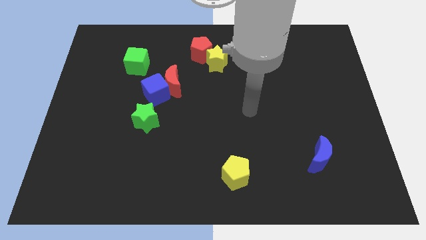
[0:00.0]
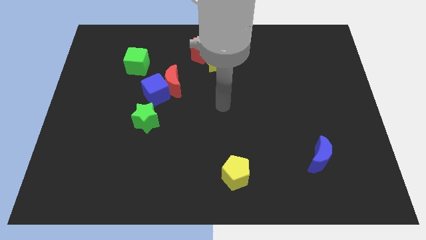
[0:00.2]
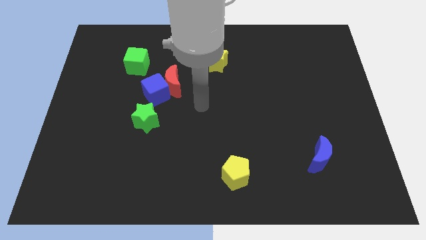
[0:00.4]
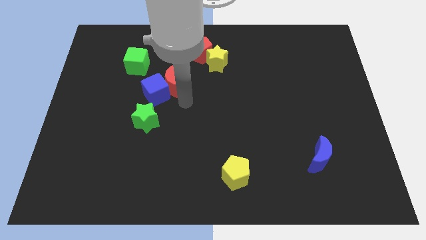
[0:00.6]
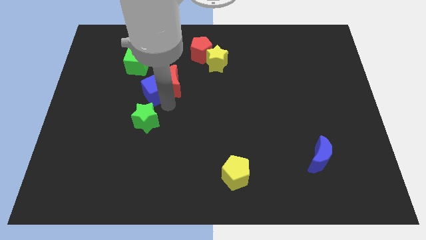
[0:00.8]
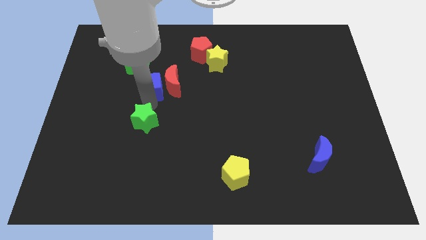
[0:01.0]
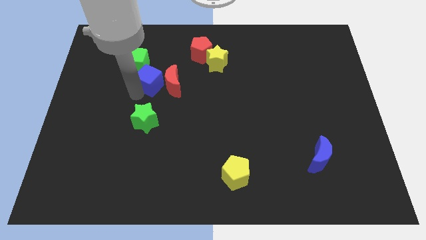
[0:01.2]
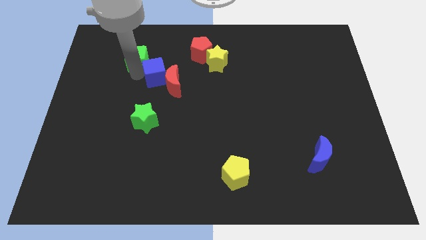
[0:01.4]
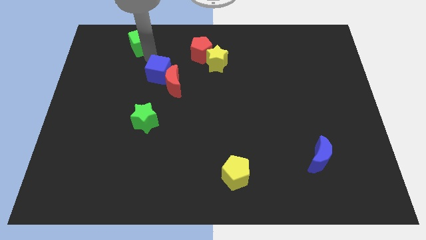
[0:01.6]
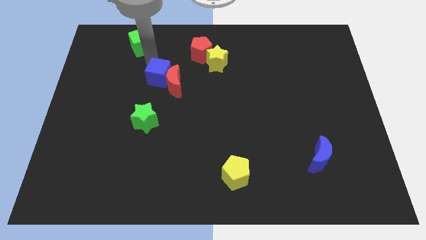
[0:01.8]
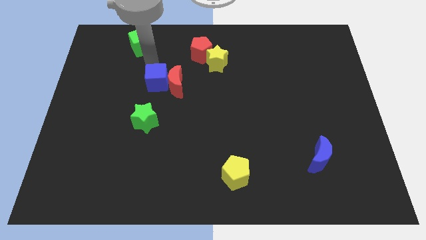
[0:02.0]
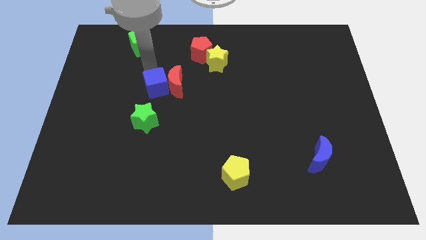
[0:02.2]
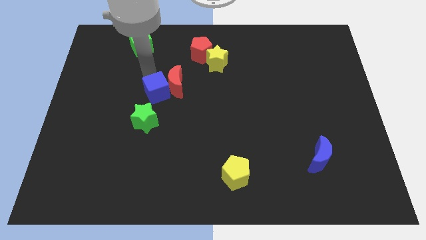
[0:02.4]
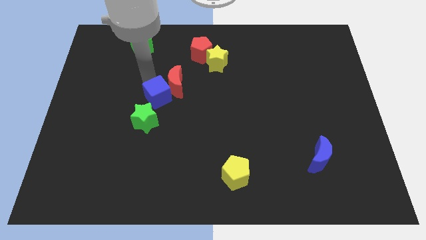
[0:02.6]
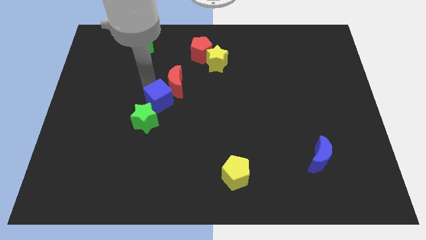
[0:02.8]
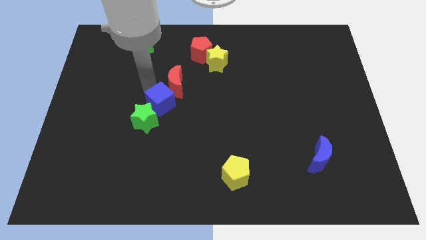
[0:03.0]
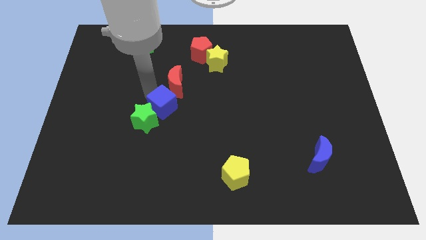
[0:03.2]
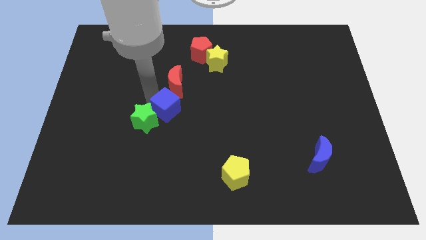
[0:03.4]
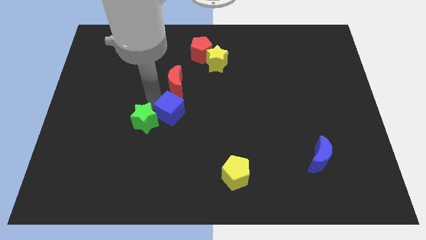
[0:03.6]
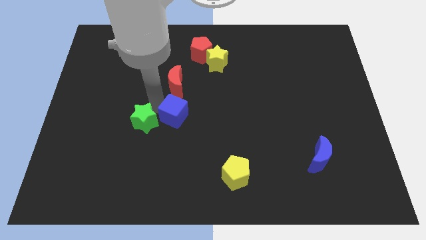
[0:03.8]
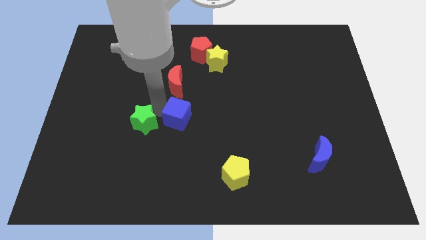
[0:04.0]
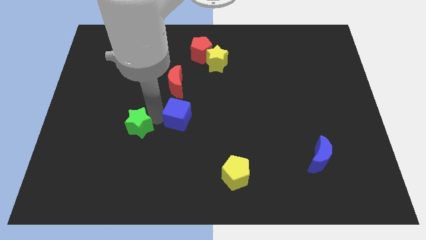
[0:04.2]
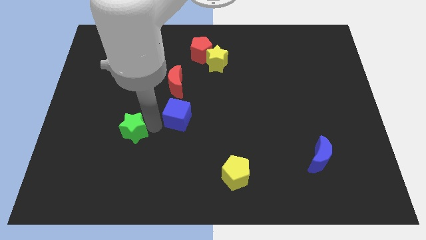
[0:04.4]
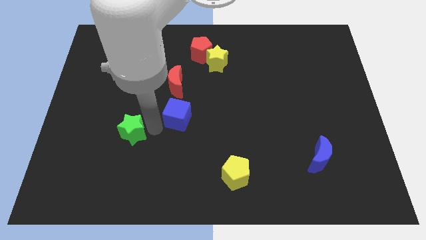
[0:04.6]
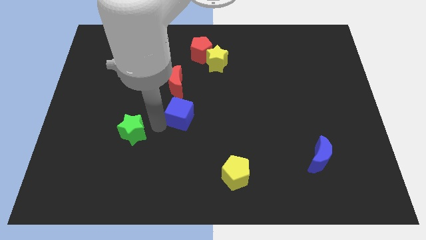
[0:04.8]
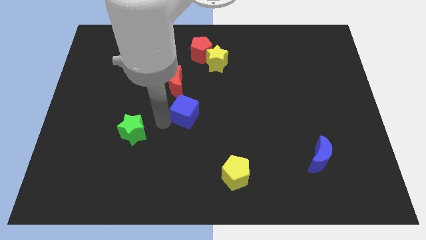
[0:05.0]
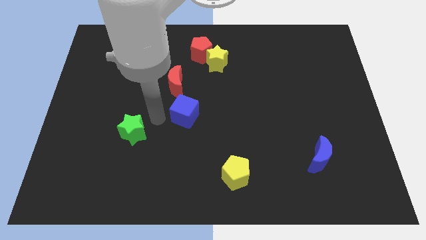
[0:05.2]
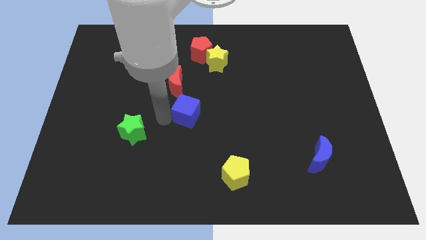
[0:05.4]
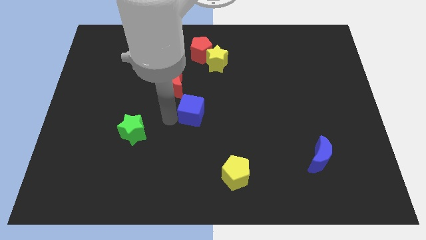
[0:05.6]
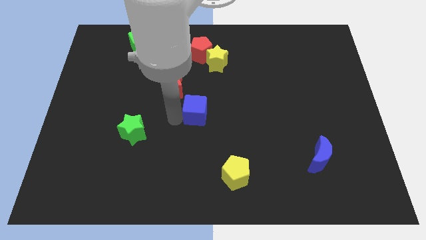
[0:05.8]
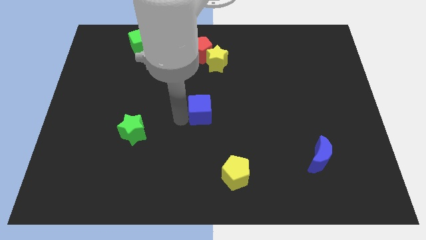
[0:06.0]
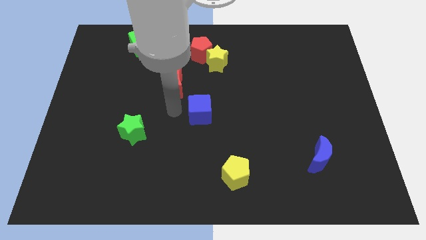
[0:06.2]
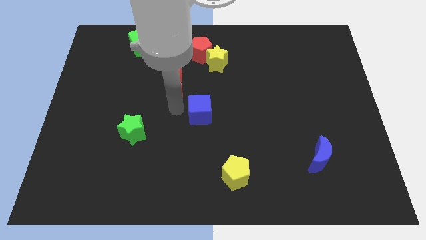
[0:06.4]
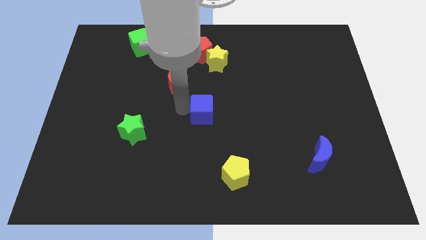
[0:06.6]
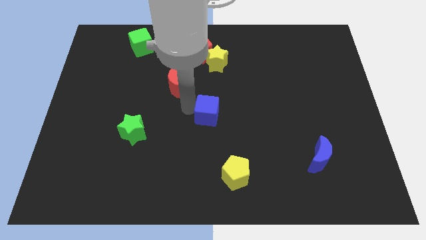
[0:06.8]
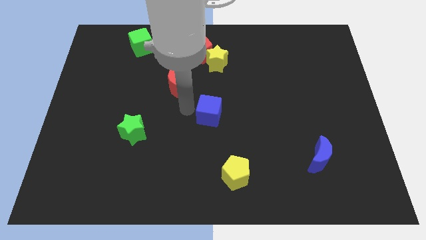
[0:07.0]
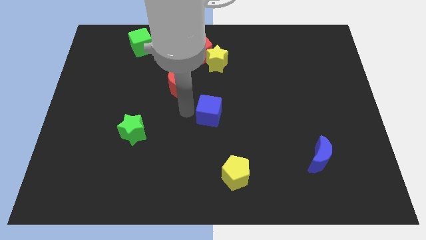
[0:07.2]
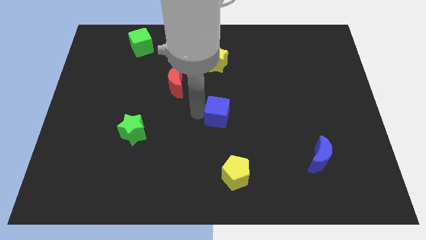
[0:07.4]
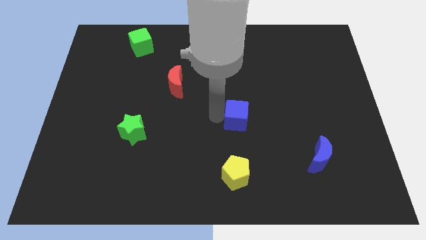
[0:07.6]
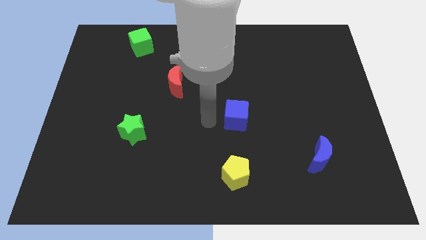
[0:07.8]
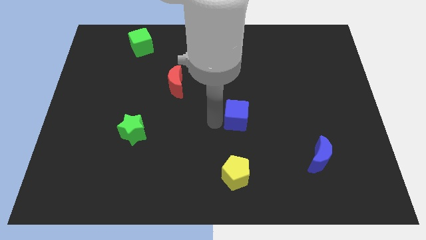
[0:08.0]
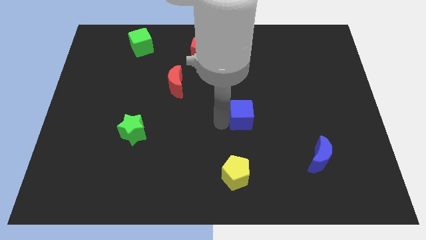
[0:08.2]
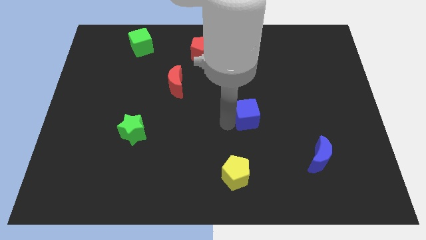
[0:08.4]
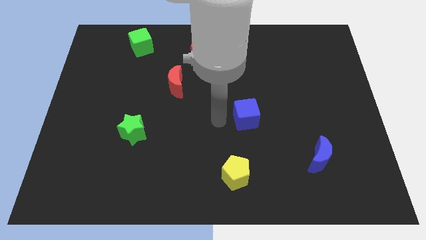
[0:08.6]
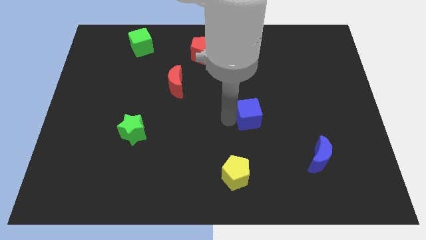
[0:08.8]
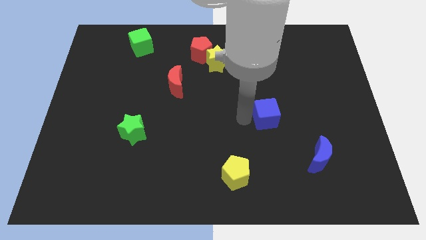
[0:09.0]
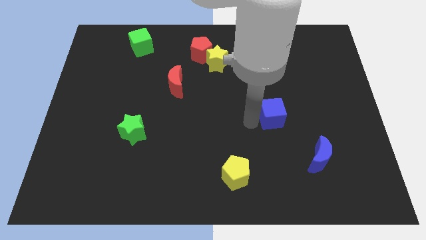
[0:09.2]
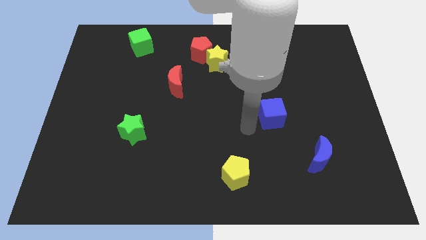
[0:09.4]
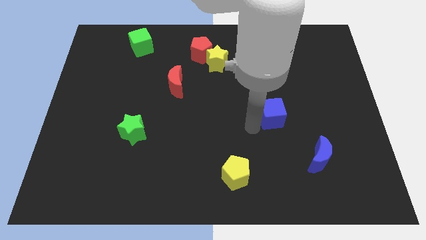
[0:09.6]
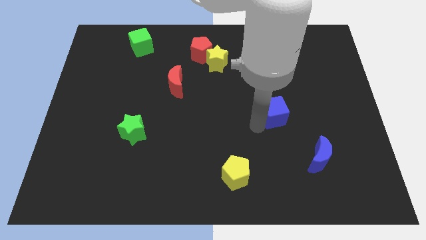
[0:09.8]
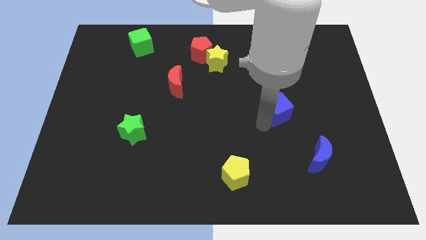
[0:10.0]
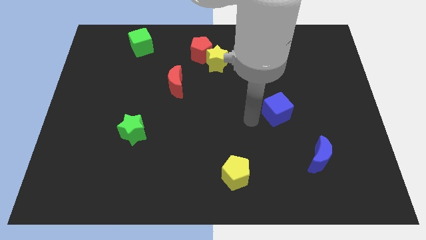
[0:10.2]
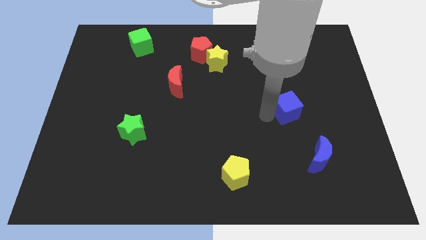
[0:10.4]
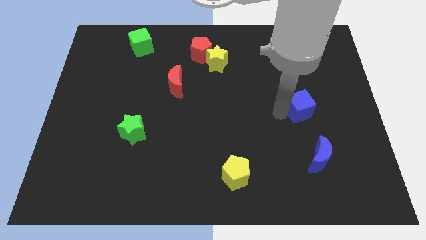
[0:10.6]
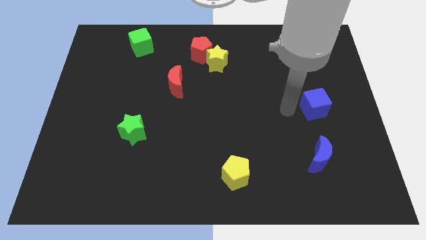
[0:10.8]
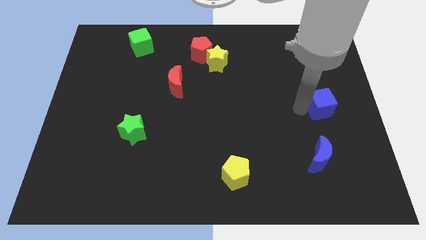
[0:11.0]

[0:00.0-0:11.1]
slide the blue cube to the center right
